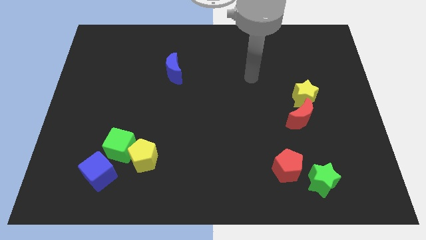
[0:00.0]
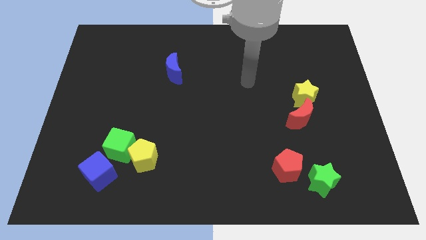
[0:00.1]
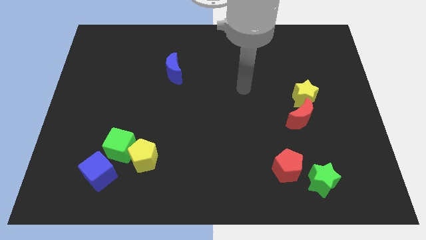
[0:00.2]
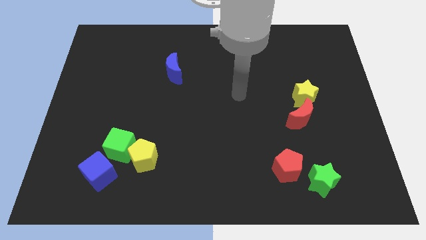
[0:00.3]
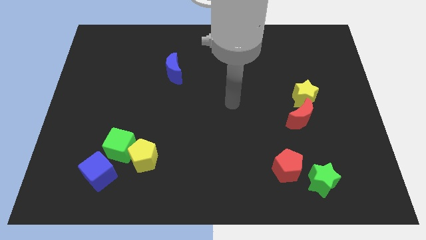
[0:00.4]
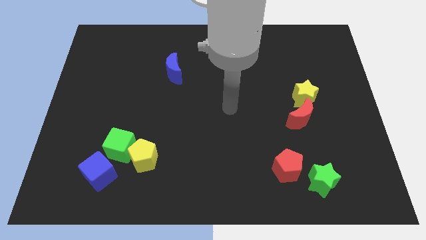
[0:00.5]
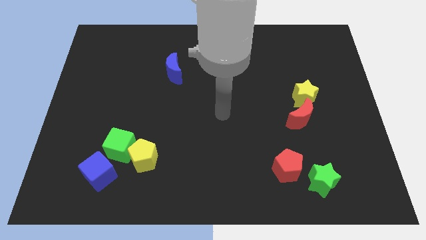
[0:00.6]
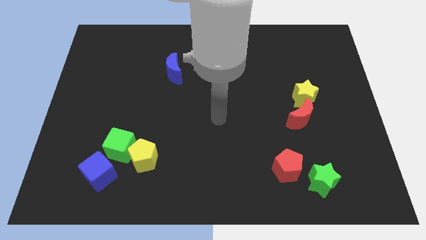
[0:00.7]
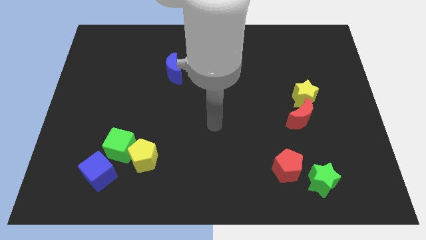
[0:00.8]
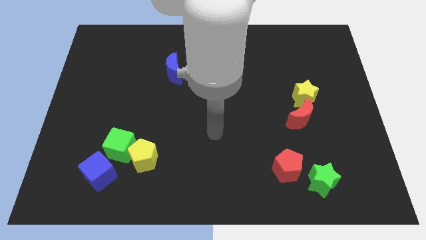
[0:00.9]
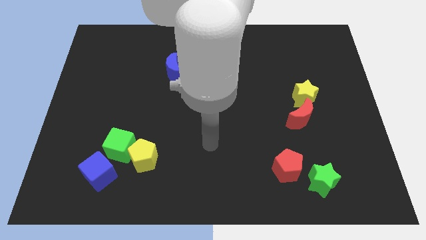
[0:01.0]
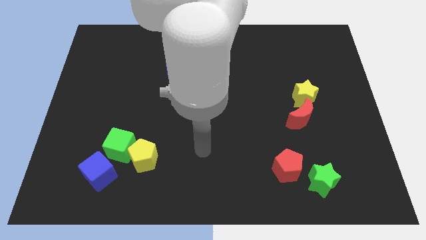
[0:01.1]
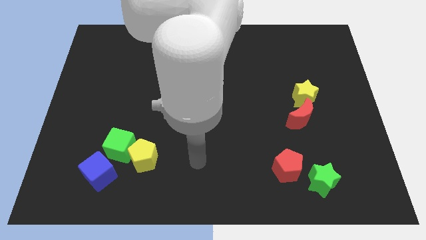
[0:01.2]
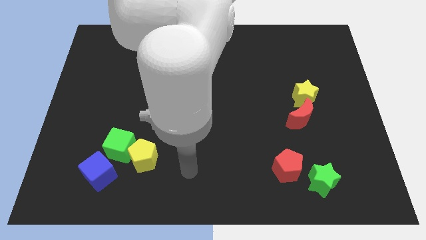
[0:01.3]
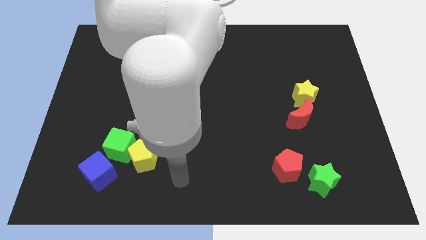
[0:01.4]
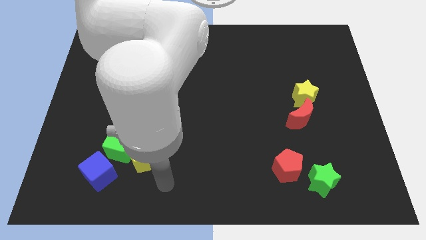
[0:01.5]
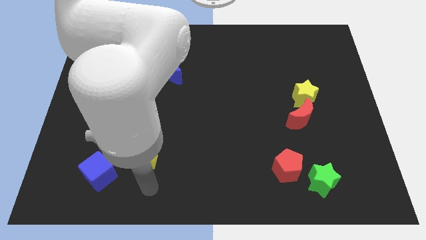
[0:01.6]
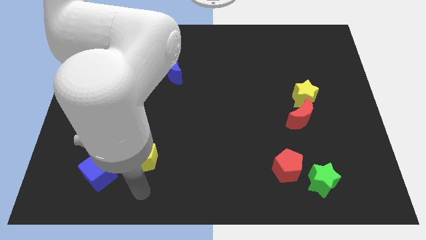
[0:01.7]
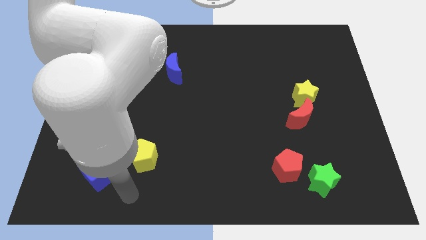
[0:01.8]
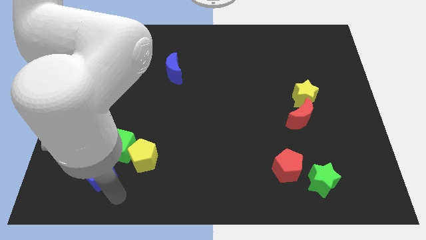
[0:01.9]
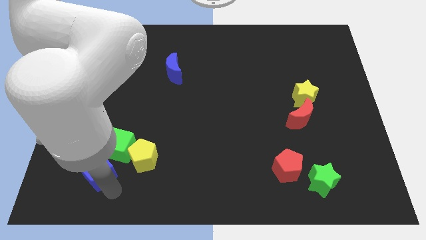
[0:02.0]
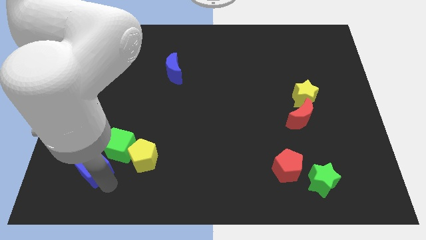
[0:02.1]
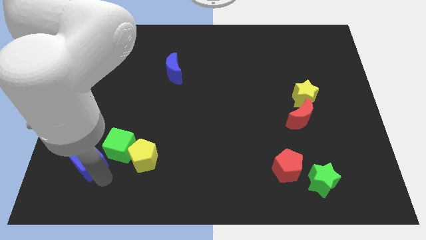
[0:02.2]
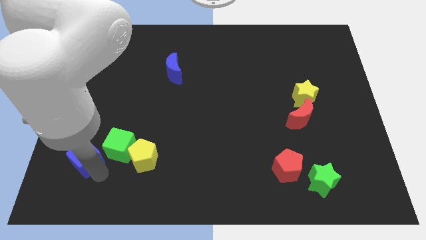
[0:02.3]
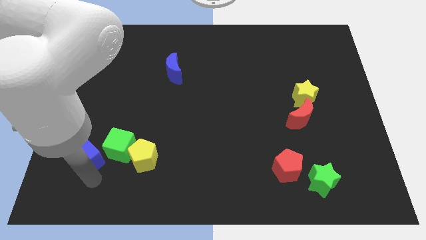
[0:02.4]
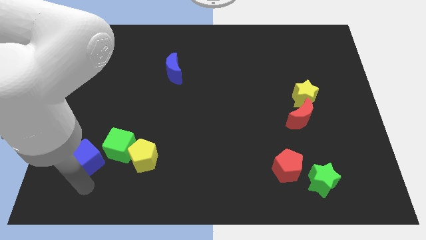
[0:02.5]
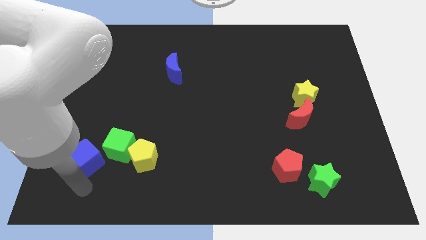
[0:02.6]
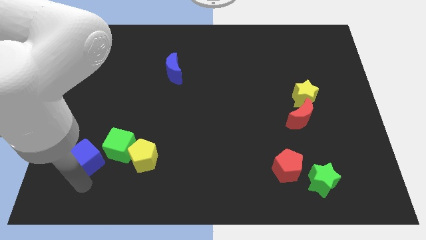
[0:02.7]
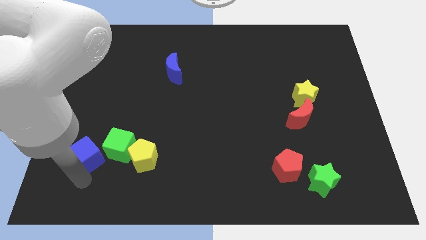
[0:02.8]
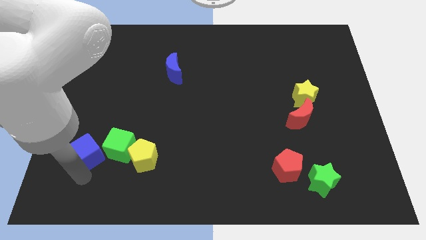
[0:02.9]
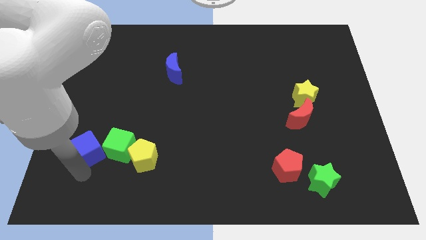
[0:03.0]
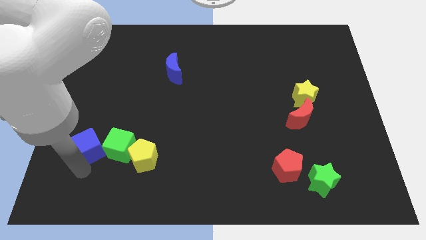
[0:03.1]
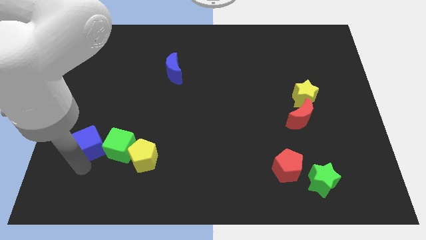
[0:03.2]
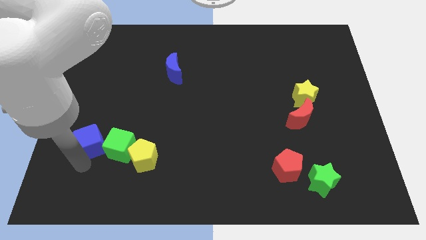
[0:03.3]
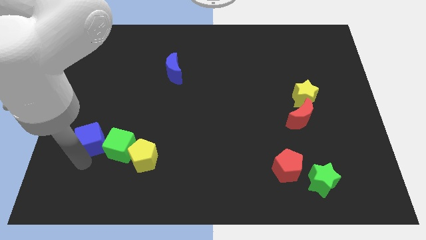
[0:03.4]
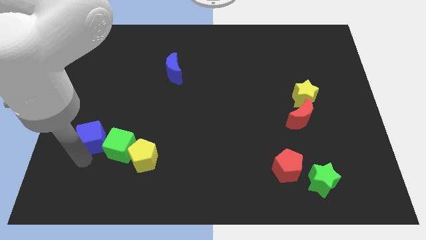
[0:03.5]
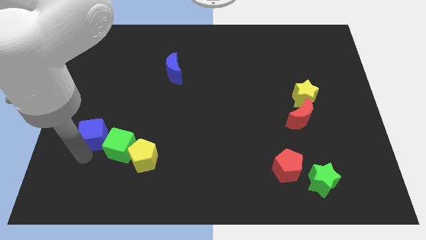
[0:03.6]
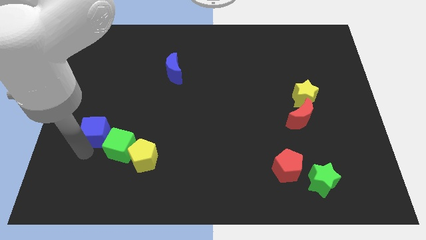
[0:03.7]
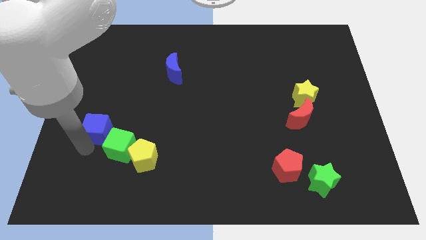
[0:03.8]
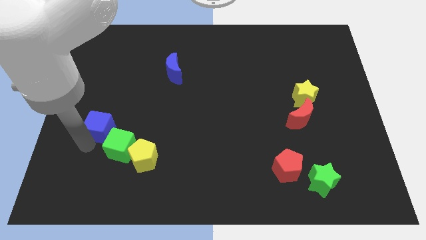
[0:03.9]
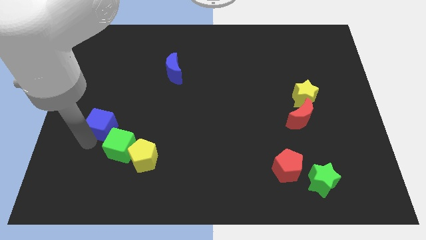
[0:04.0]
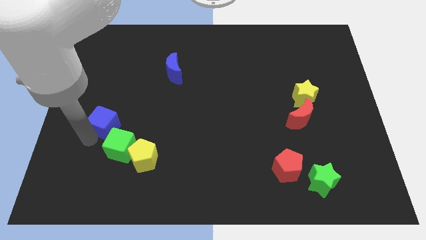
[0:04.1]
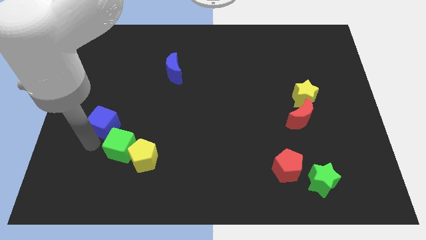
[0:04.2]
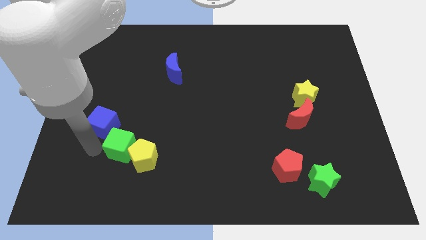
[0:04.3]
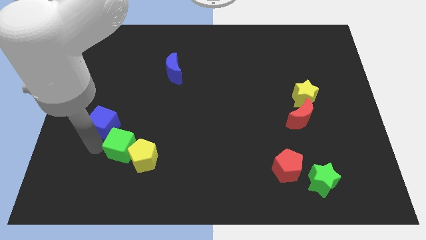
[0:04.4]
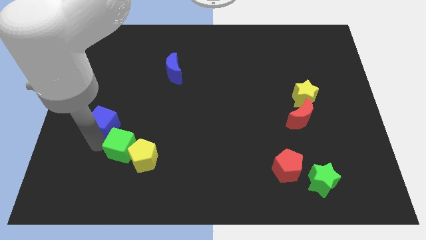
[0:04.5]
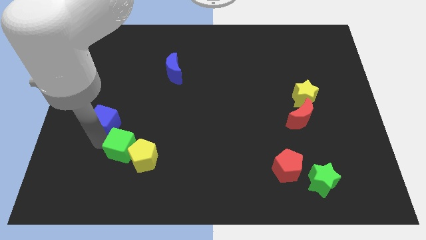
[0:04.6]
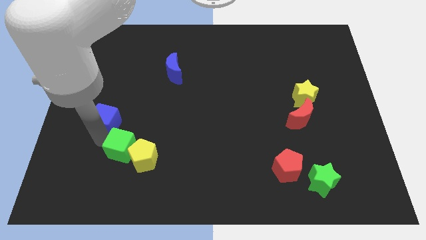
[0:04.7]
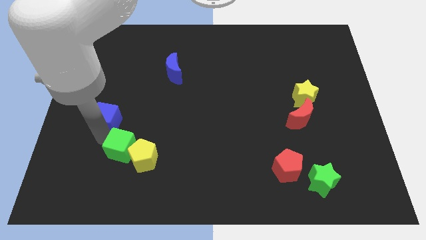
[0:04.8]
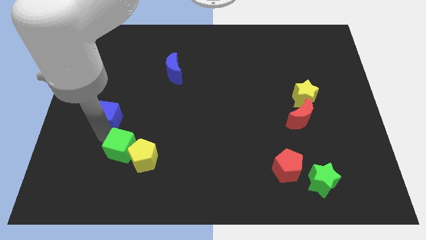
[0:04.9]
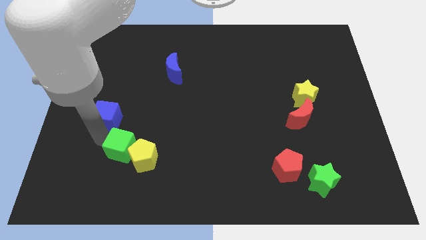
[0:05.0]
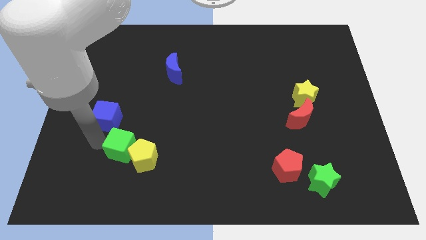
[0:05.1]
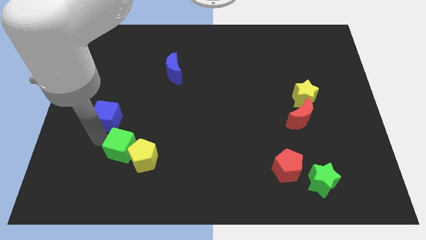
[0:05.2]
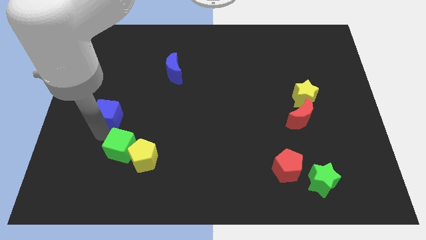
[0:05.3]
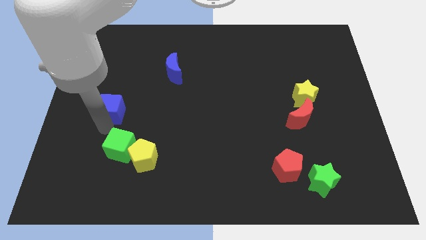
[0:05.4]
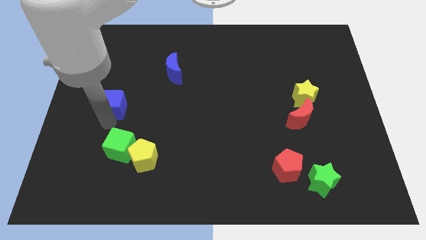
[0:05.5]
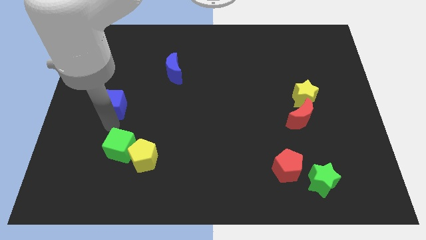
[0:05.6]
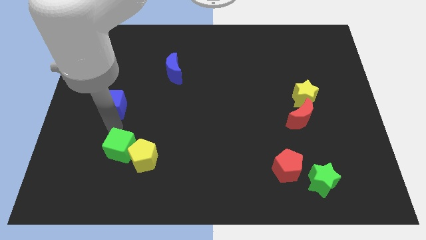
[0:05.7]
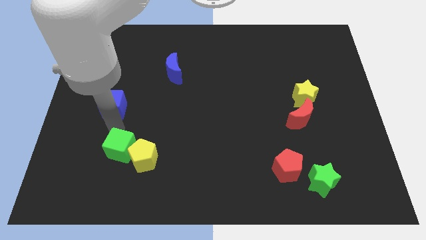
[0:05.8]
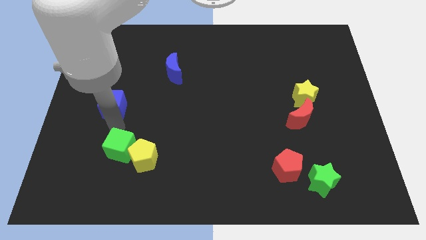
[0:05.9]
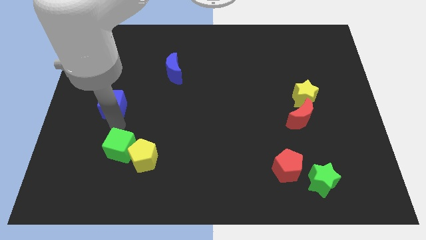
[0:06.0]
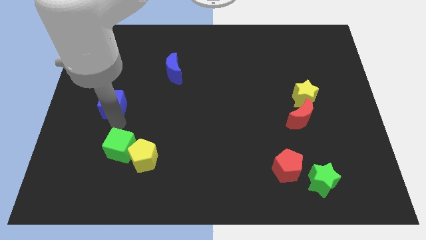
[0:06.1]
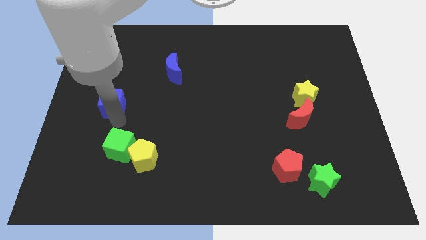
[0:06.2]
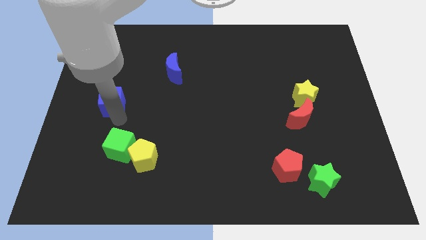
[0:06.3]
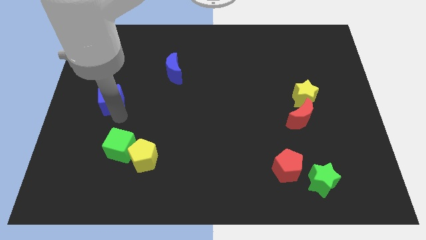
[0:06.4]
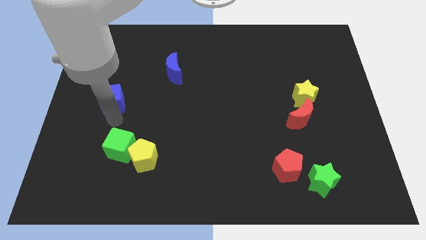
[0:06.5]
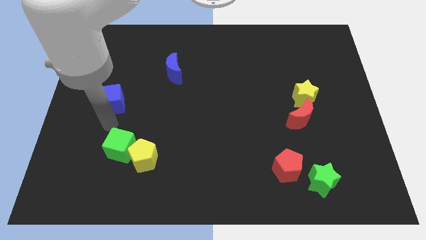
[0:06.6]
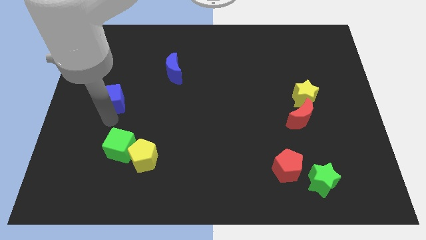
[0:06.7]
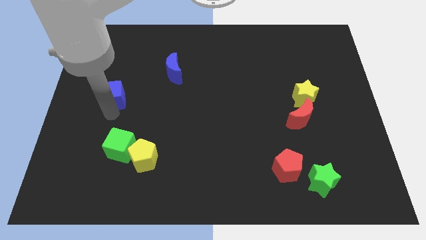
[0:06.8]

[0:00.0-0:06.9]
push the blue cube upwards

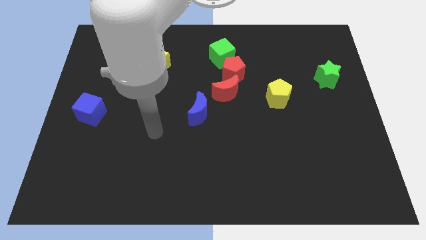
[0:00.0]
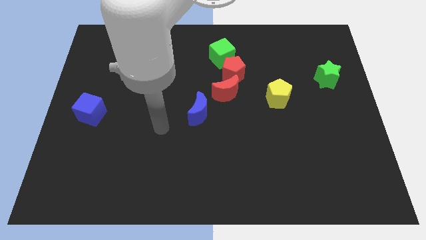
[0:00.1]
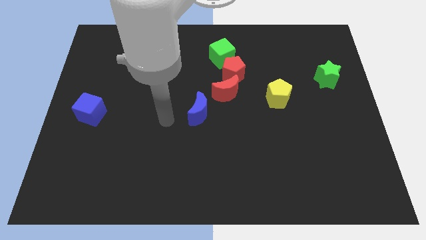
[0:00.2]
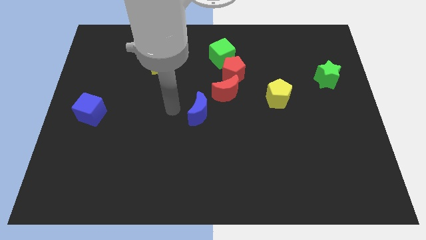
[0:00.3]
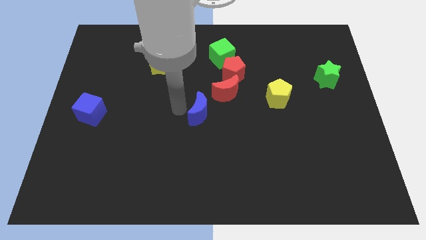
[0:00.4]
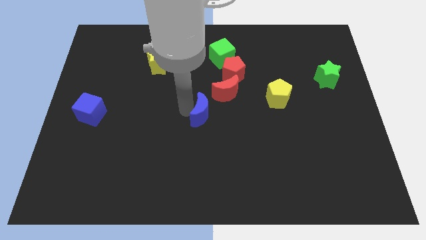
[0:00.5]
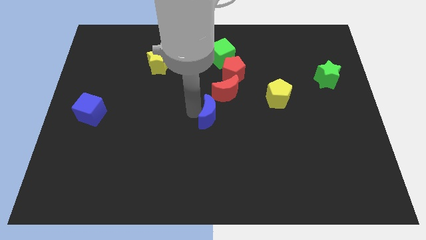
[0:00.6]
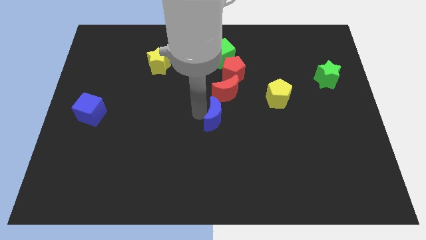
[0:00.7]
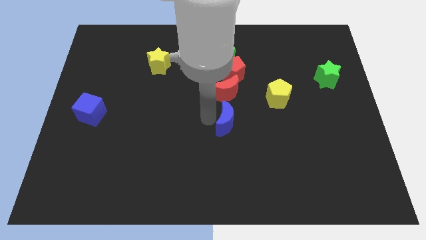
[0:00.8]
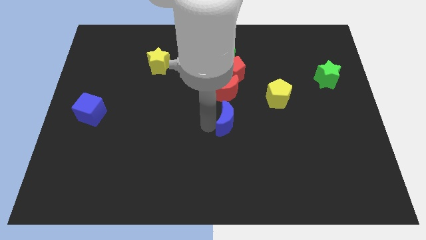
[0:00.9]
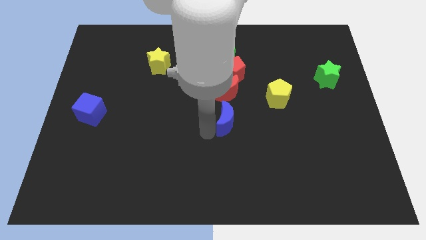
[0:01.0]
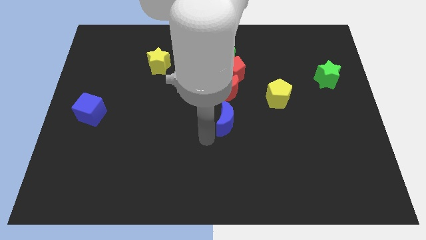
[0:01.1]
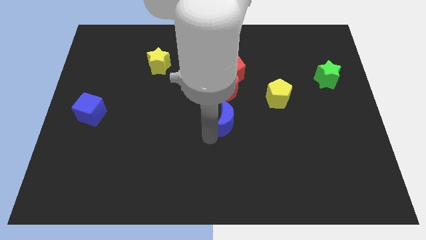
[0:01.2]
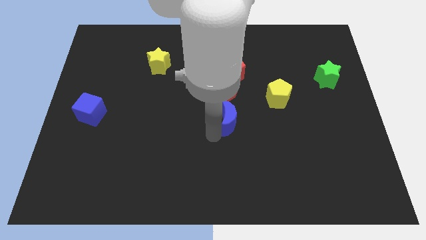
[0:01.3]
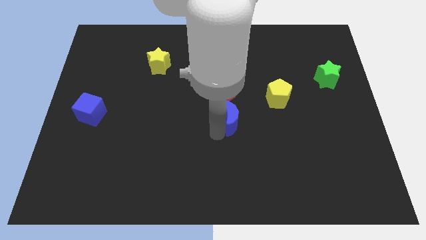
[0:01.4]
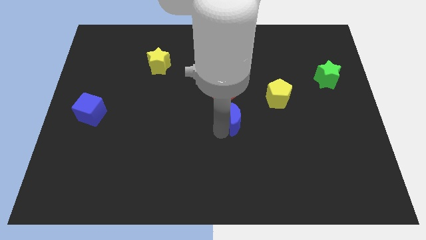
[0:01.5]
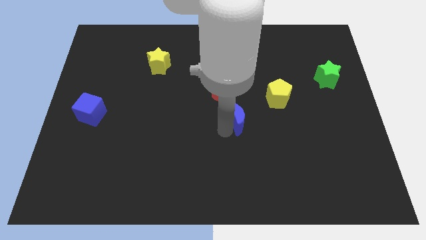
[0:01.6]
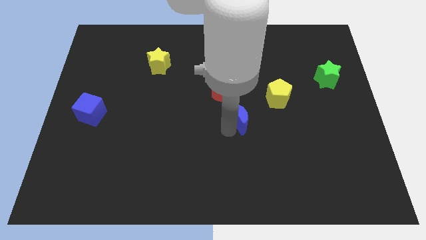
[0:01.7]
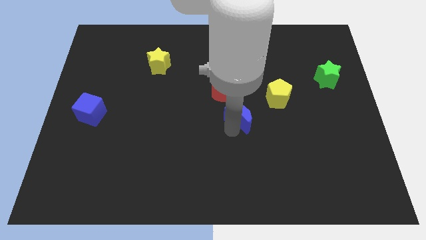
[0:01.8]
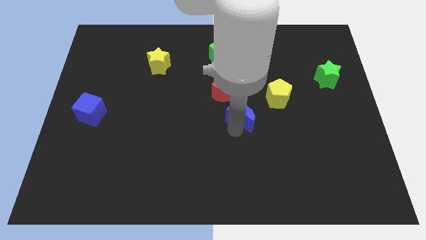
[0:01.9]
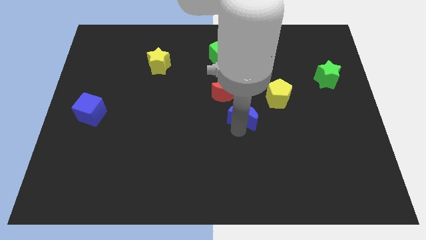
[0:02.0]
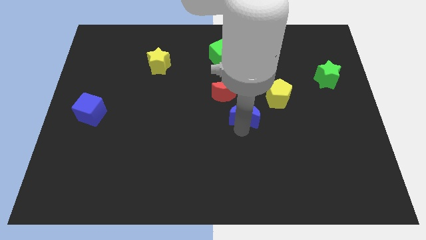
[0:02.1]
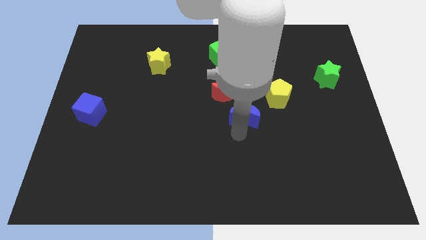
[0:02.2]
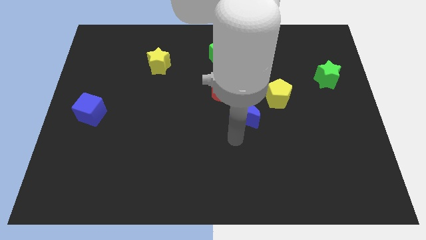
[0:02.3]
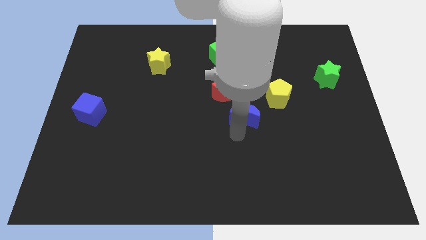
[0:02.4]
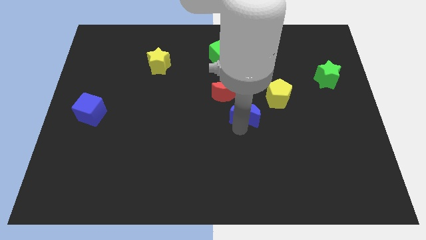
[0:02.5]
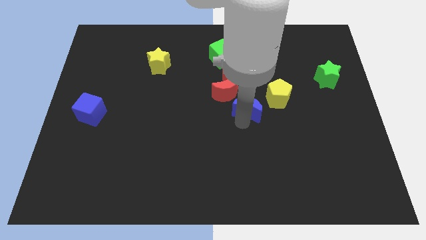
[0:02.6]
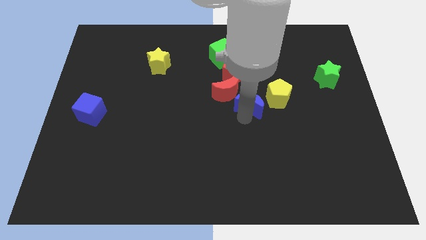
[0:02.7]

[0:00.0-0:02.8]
slide the blue moon diagonally up and right a bit
